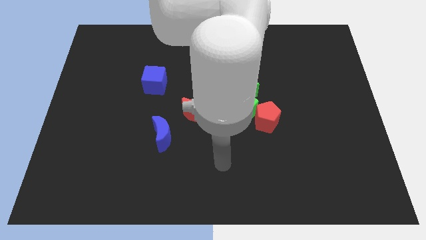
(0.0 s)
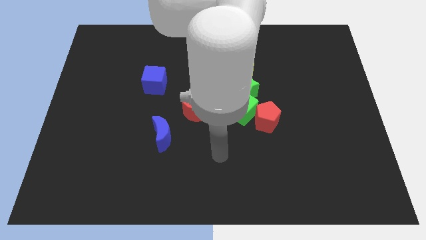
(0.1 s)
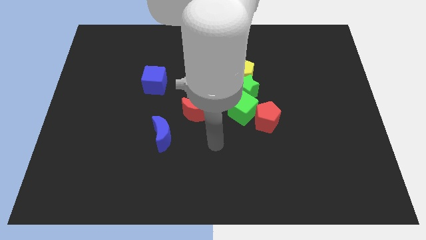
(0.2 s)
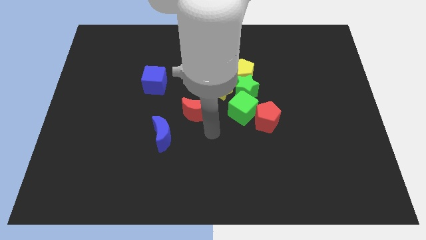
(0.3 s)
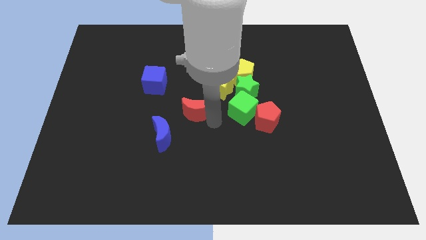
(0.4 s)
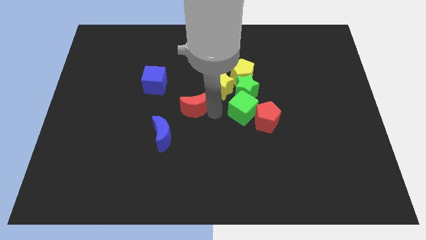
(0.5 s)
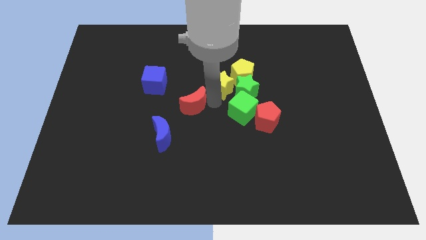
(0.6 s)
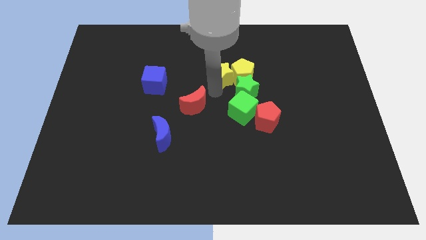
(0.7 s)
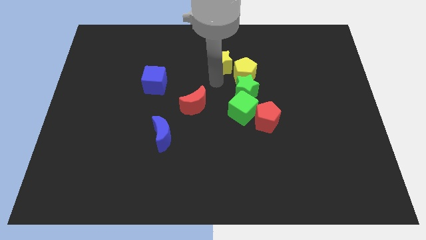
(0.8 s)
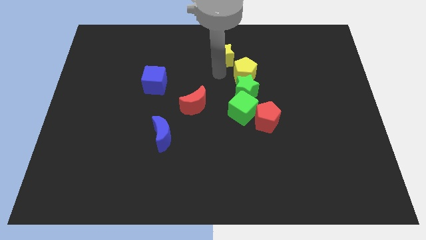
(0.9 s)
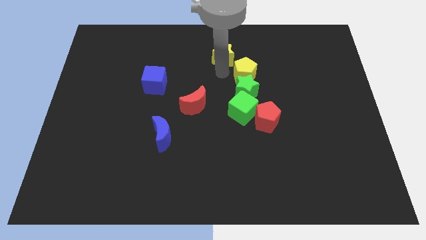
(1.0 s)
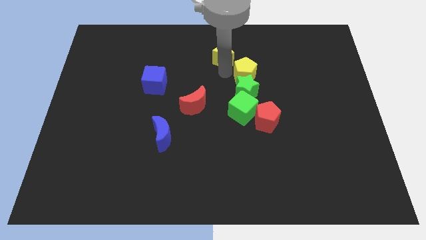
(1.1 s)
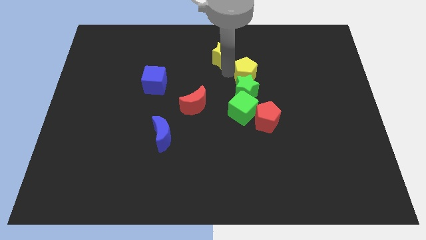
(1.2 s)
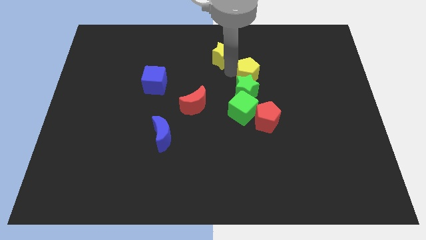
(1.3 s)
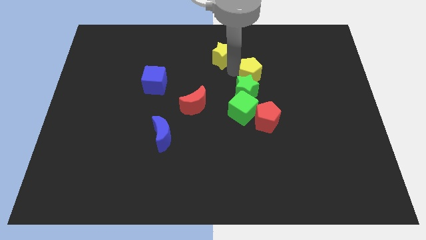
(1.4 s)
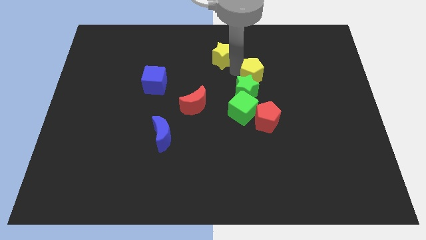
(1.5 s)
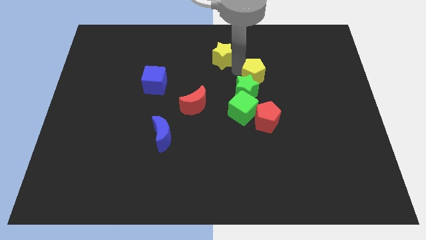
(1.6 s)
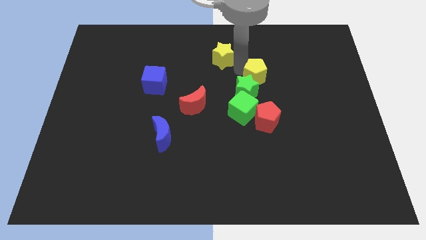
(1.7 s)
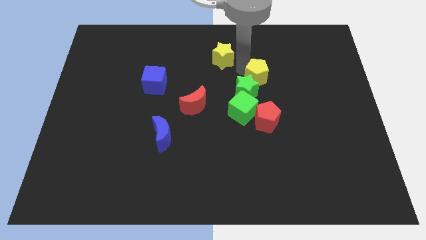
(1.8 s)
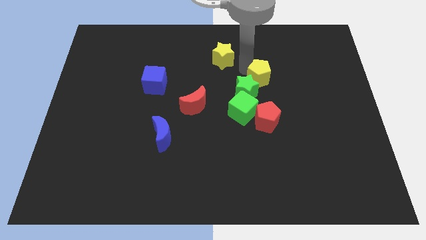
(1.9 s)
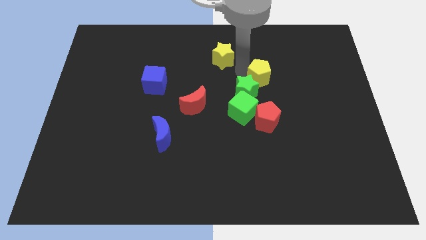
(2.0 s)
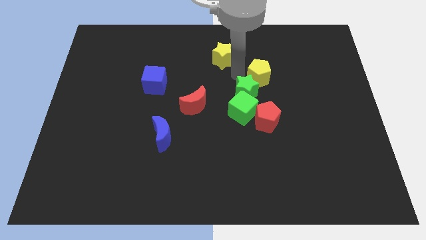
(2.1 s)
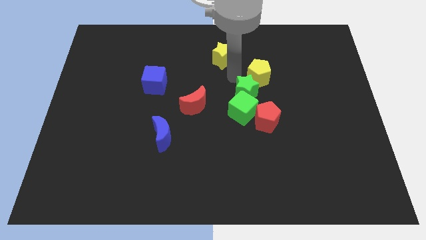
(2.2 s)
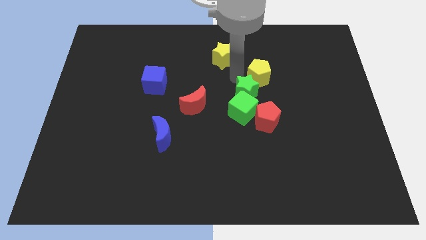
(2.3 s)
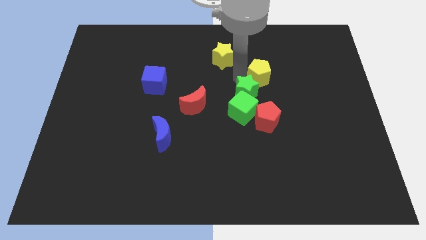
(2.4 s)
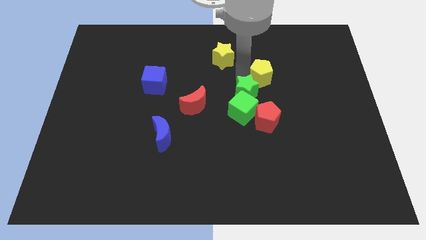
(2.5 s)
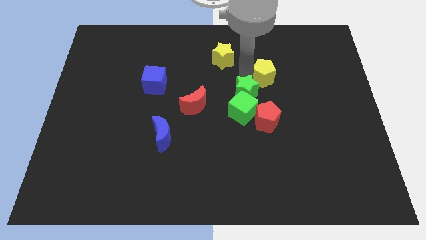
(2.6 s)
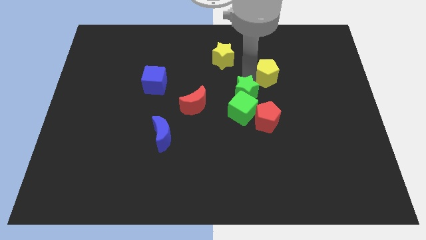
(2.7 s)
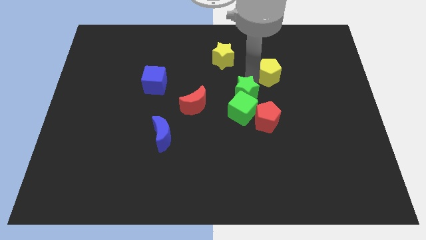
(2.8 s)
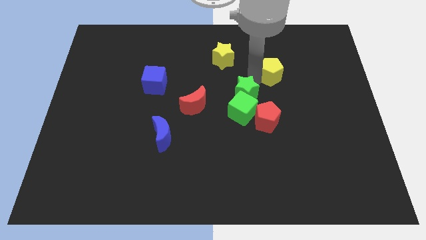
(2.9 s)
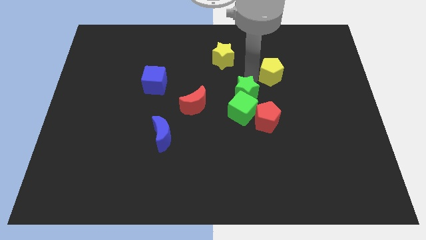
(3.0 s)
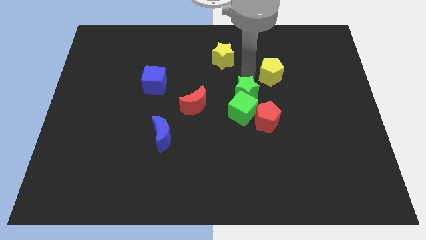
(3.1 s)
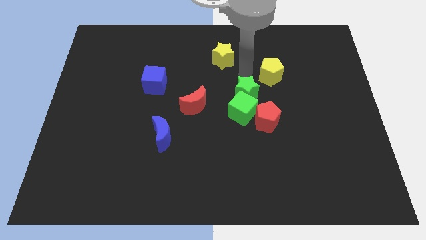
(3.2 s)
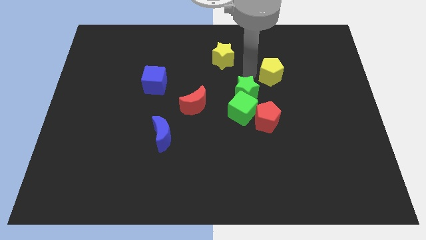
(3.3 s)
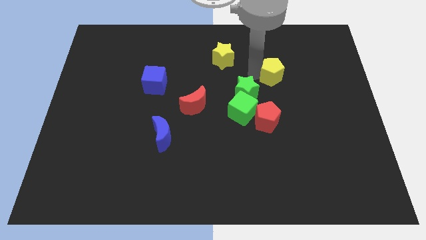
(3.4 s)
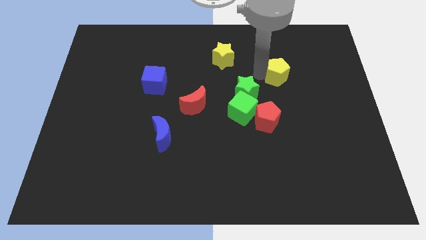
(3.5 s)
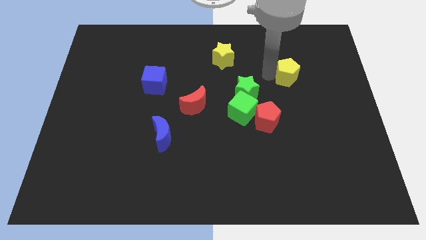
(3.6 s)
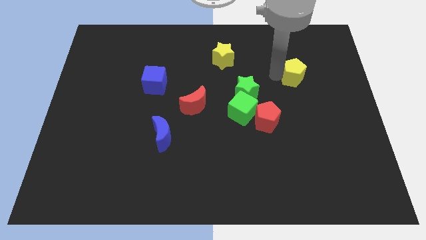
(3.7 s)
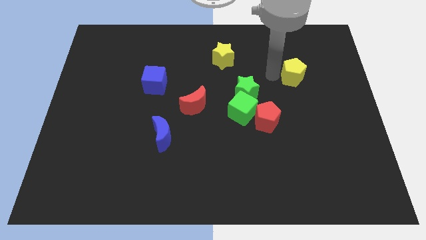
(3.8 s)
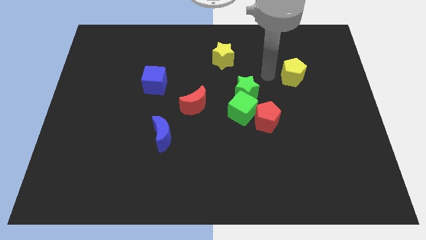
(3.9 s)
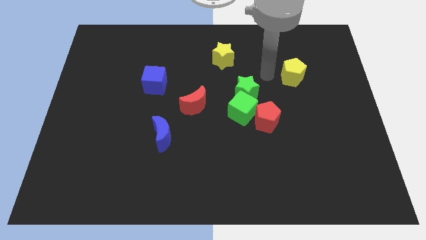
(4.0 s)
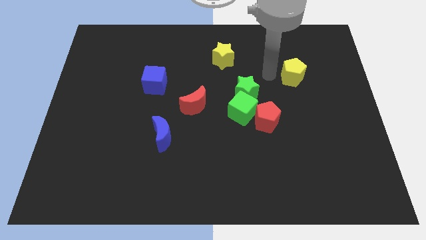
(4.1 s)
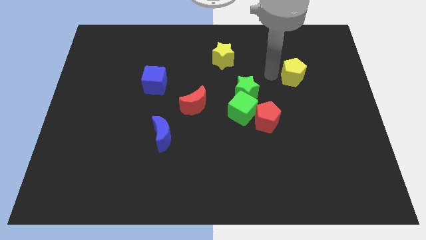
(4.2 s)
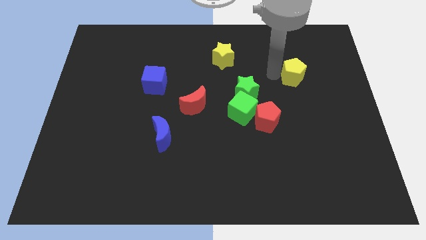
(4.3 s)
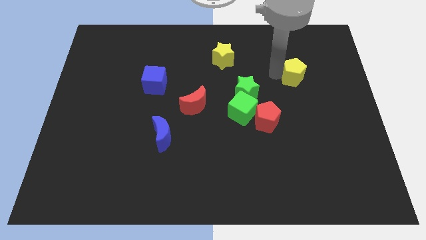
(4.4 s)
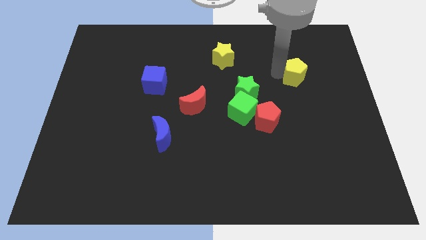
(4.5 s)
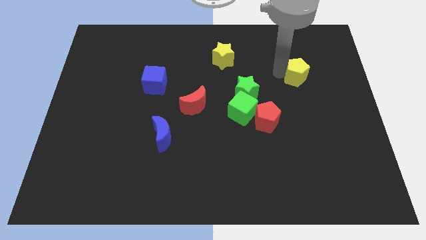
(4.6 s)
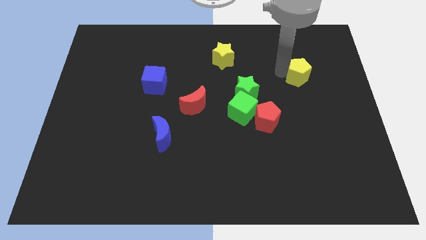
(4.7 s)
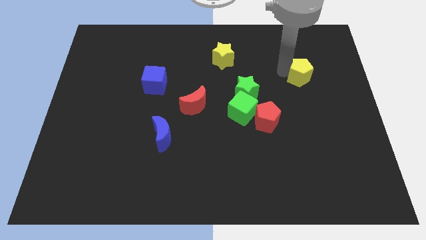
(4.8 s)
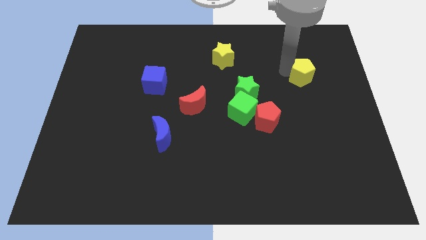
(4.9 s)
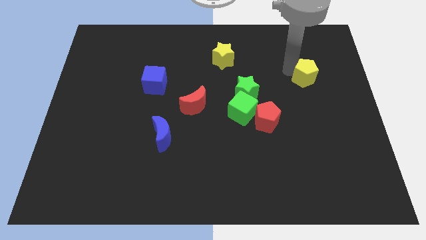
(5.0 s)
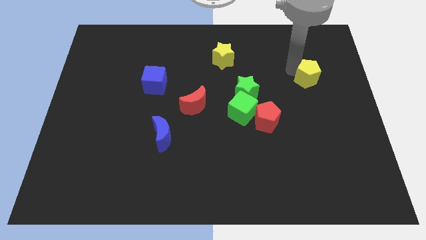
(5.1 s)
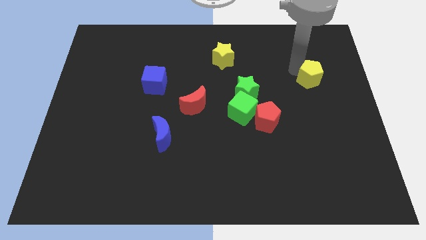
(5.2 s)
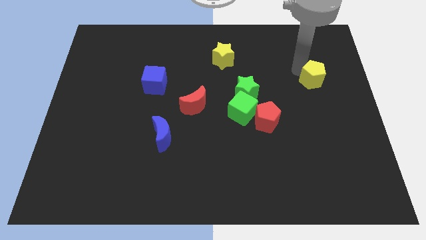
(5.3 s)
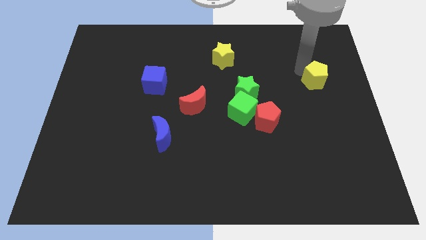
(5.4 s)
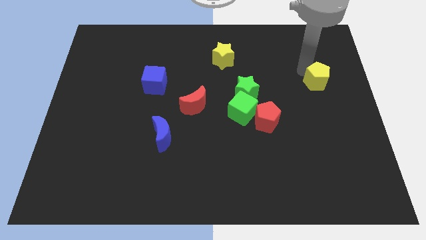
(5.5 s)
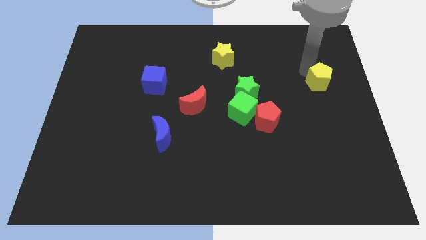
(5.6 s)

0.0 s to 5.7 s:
slide the yellow pentagon to the right side of the board
